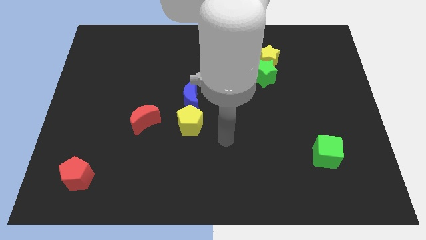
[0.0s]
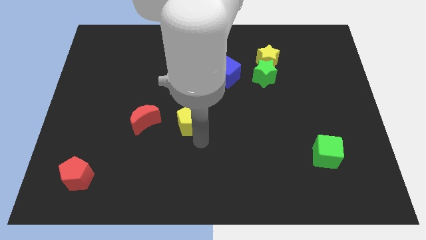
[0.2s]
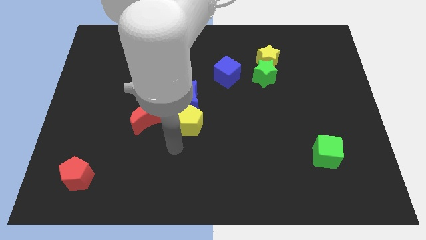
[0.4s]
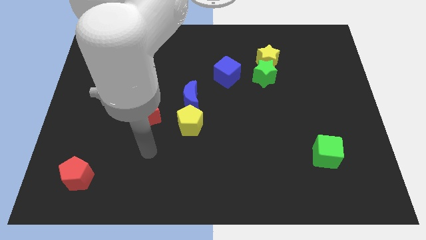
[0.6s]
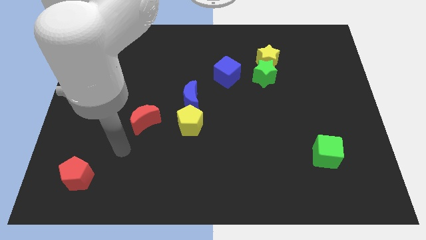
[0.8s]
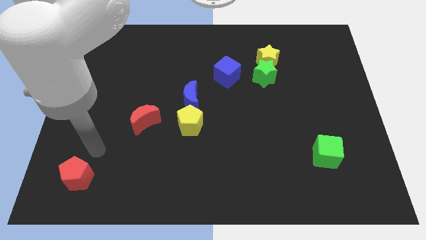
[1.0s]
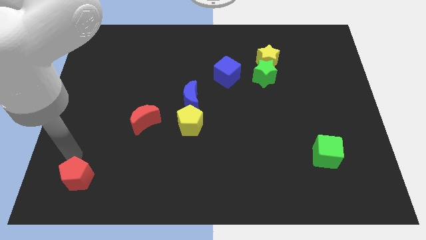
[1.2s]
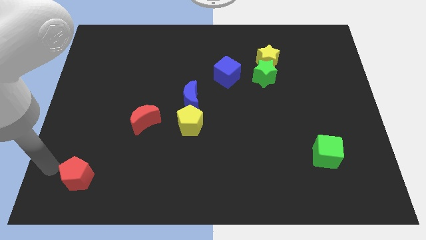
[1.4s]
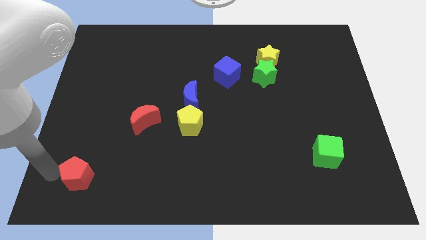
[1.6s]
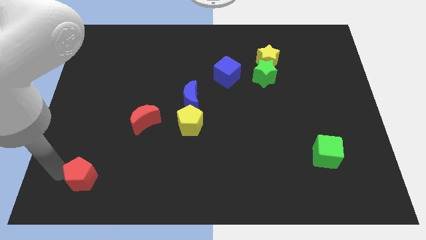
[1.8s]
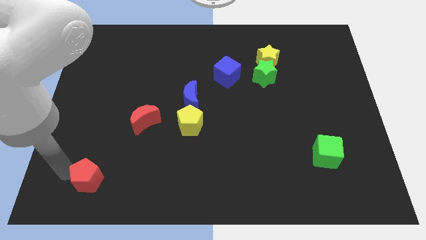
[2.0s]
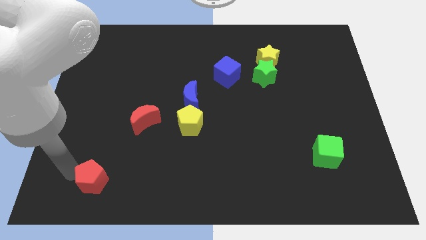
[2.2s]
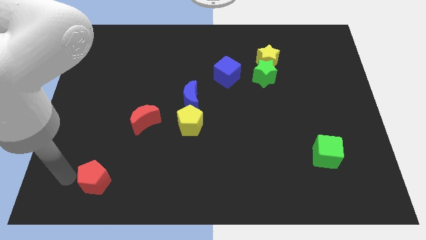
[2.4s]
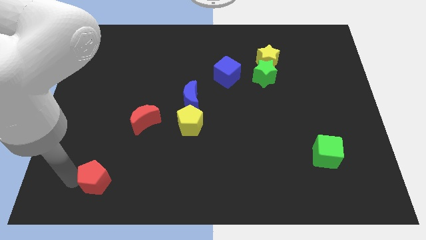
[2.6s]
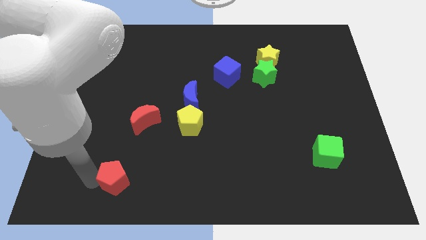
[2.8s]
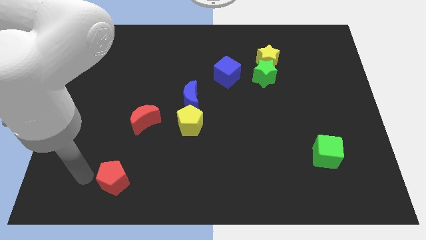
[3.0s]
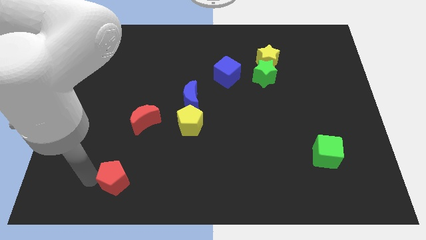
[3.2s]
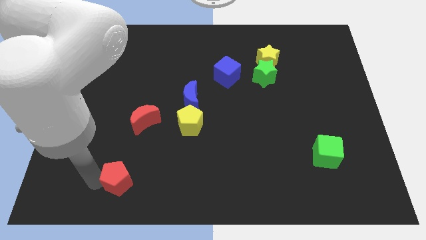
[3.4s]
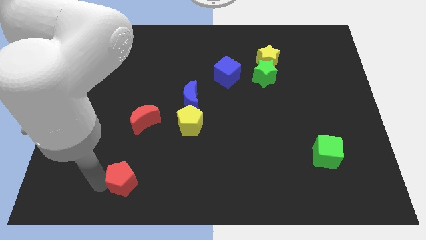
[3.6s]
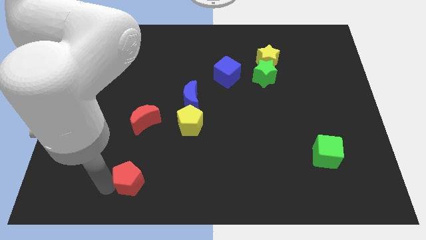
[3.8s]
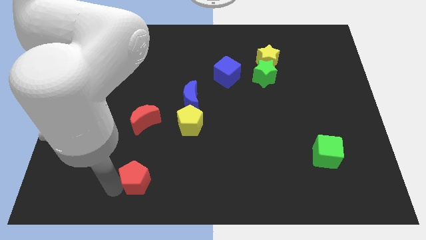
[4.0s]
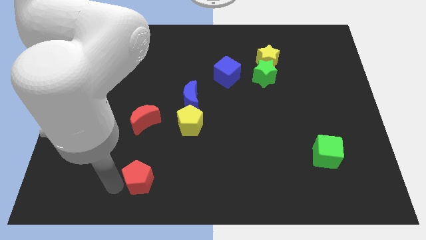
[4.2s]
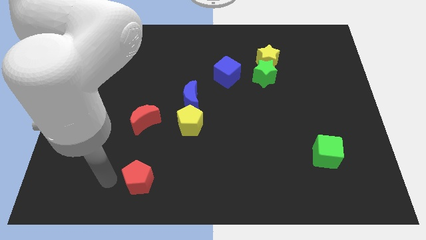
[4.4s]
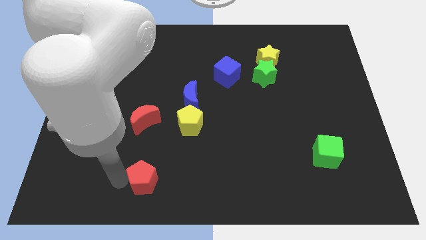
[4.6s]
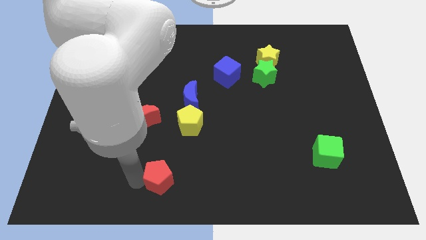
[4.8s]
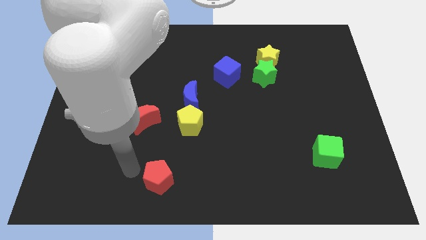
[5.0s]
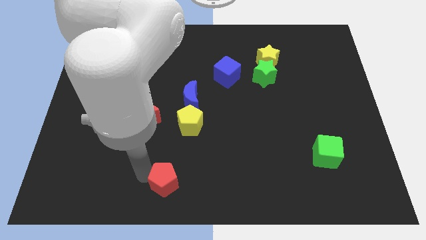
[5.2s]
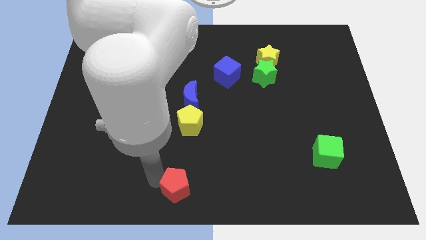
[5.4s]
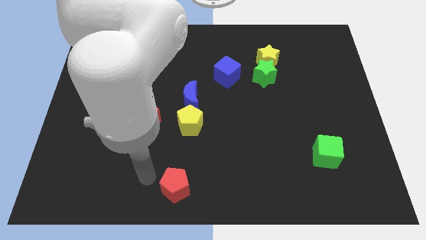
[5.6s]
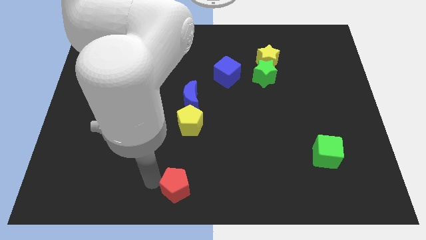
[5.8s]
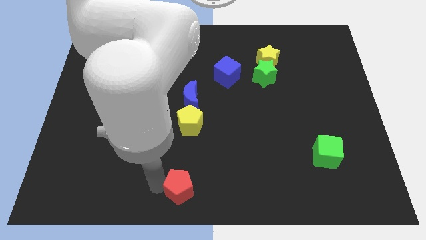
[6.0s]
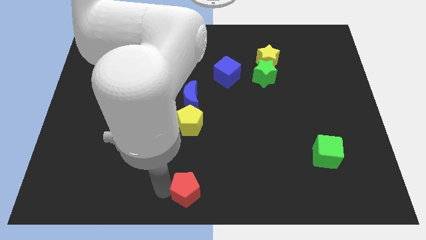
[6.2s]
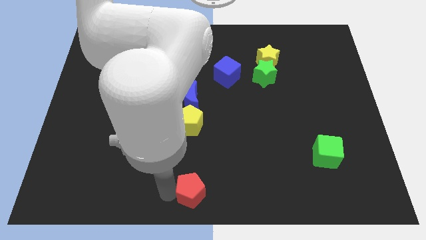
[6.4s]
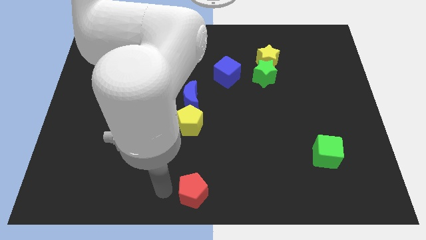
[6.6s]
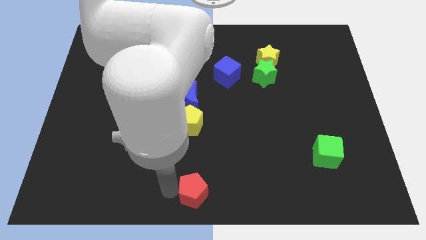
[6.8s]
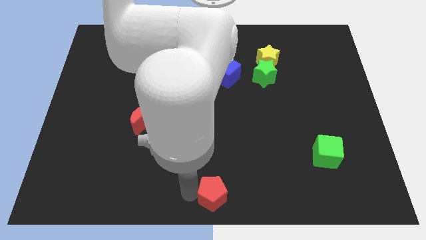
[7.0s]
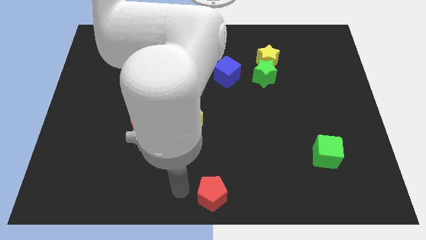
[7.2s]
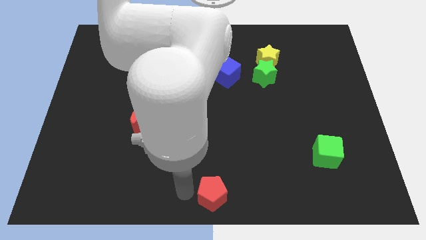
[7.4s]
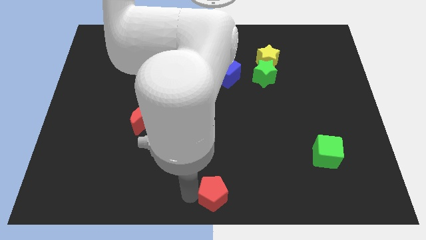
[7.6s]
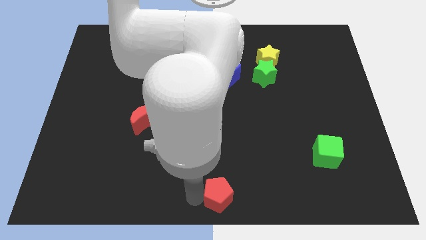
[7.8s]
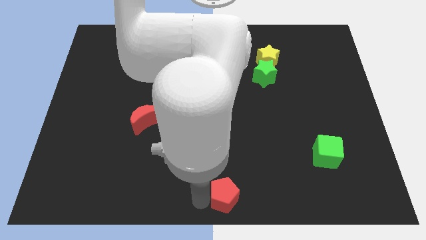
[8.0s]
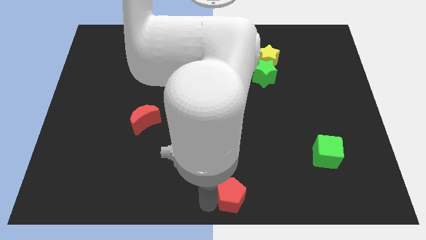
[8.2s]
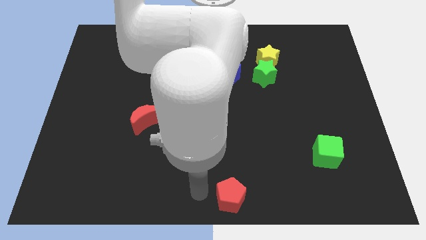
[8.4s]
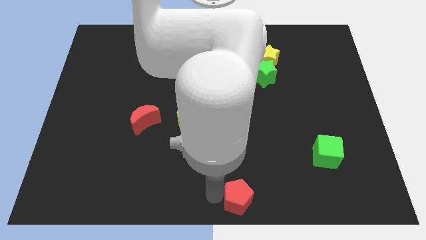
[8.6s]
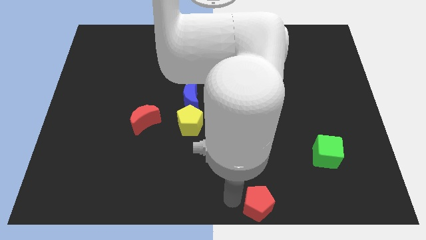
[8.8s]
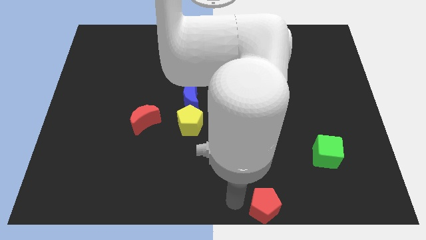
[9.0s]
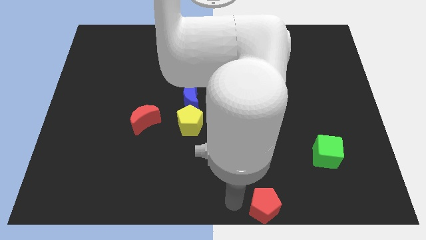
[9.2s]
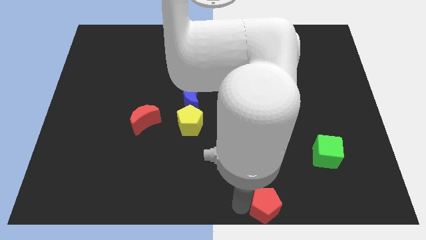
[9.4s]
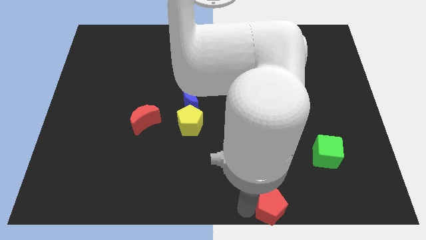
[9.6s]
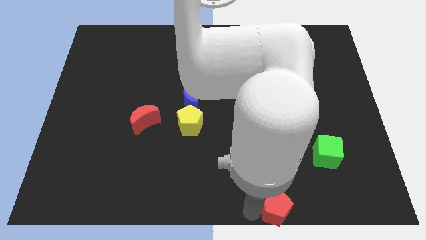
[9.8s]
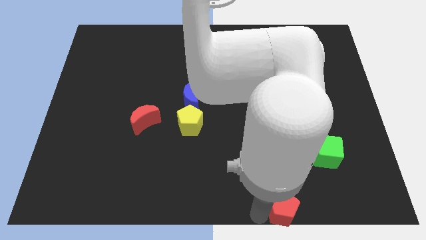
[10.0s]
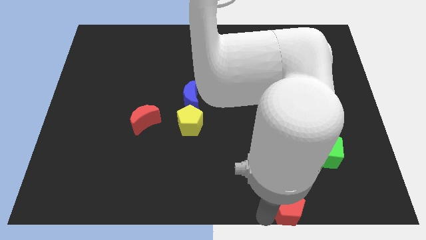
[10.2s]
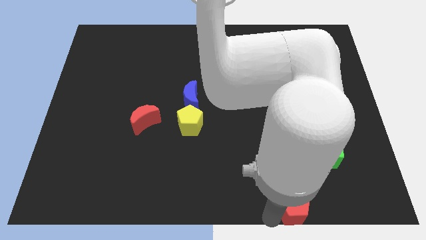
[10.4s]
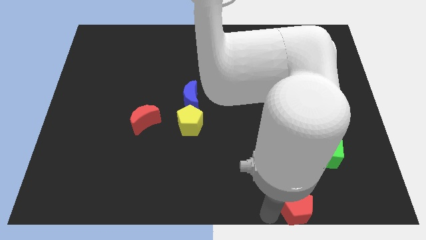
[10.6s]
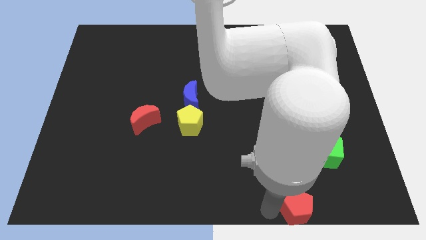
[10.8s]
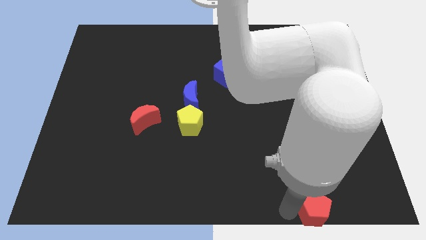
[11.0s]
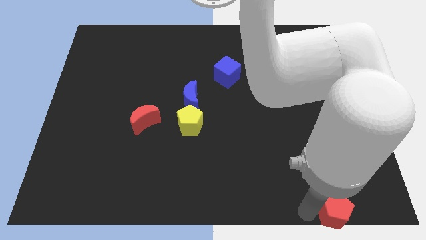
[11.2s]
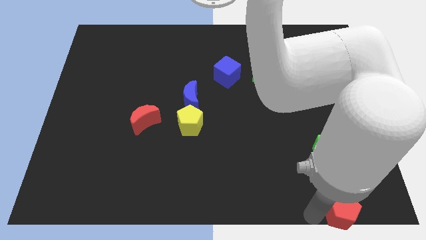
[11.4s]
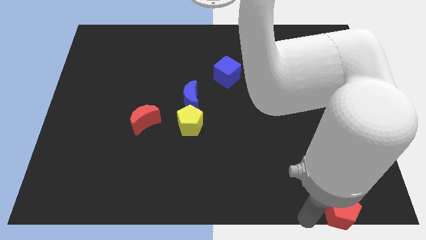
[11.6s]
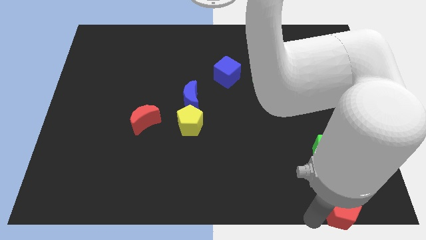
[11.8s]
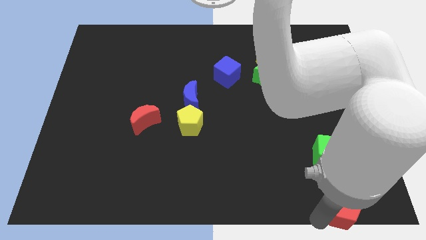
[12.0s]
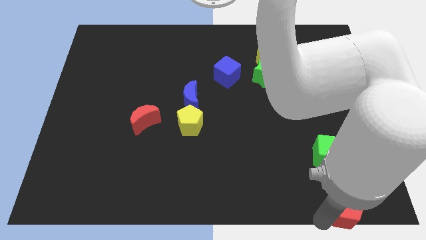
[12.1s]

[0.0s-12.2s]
slide the red pentagon to the bottom right corner
